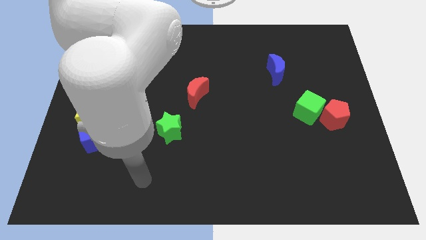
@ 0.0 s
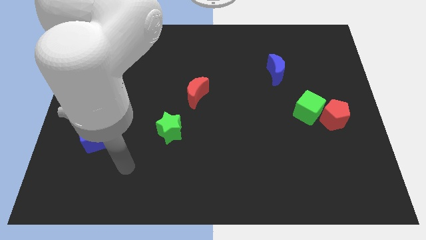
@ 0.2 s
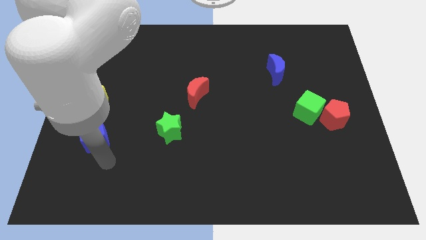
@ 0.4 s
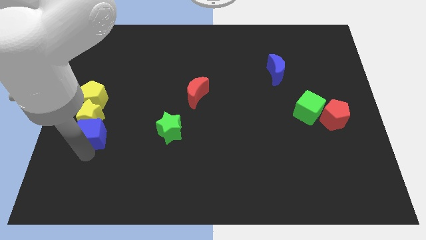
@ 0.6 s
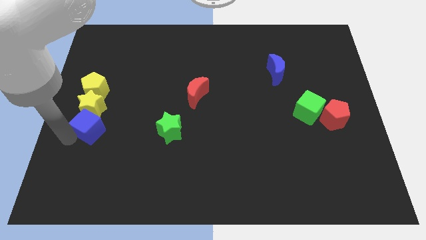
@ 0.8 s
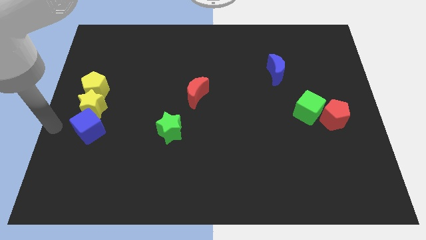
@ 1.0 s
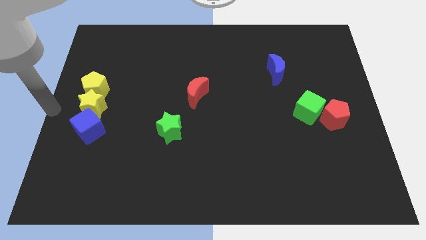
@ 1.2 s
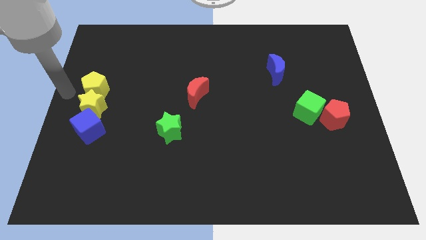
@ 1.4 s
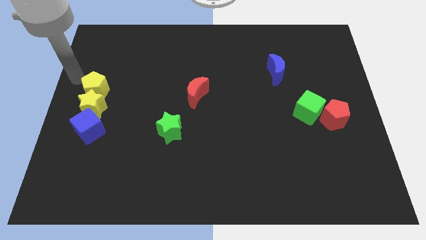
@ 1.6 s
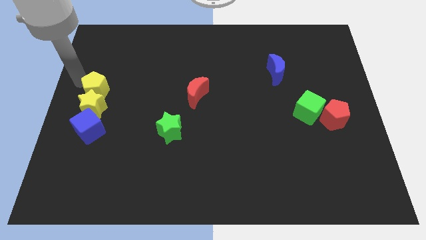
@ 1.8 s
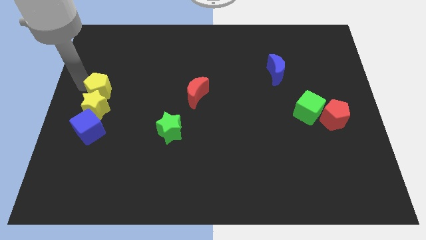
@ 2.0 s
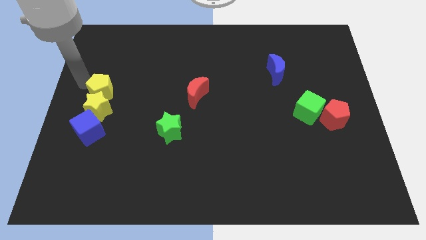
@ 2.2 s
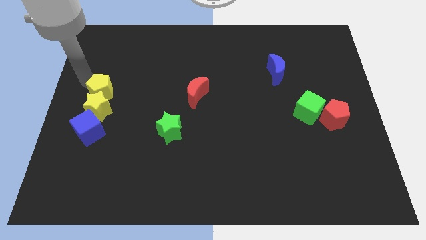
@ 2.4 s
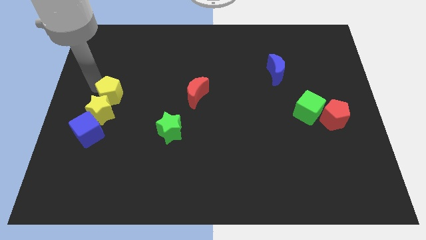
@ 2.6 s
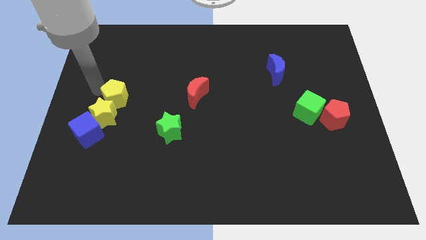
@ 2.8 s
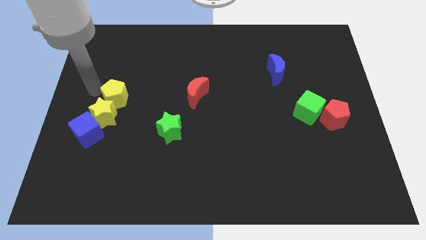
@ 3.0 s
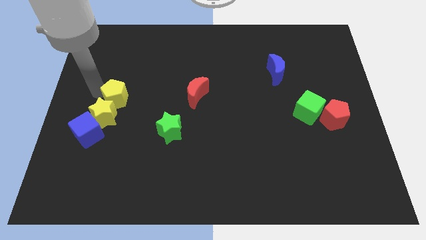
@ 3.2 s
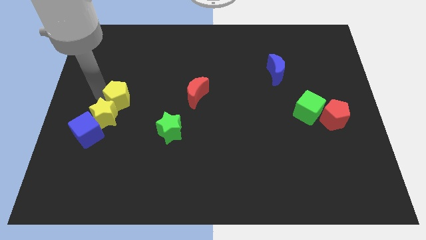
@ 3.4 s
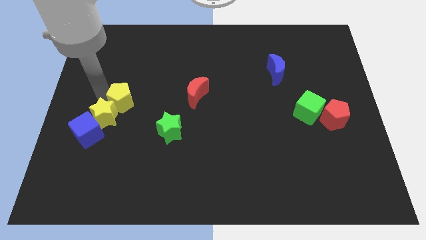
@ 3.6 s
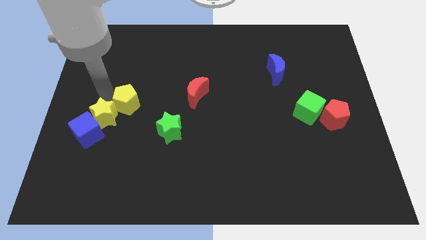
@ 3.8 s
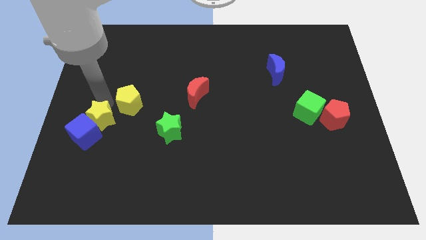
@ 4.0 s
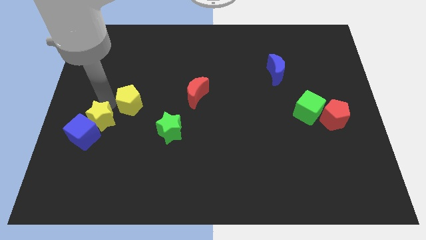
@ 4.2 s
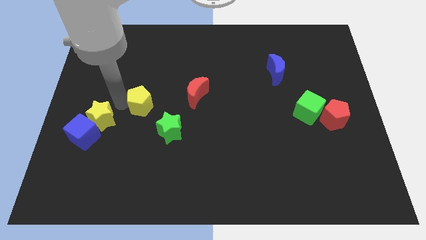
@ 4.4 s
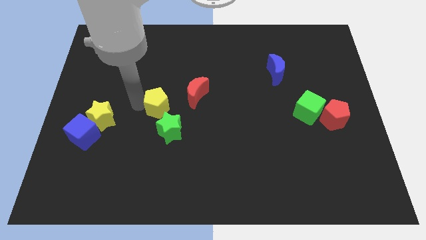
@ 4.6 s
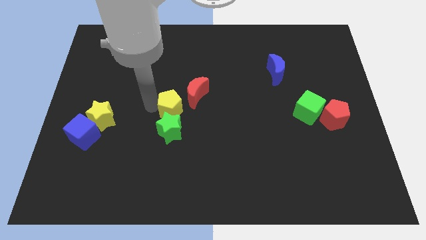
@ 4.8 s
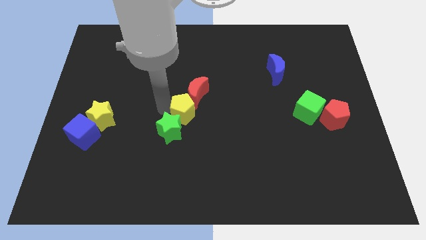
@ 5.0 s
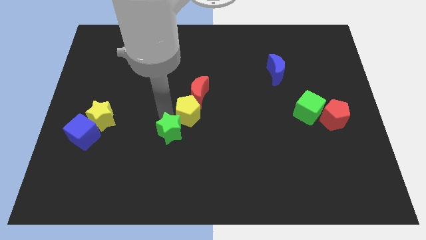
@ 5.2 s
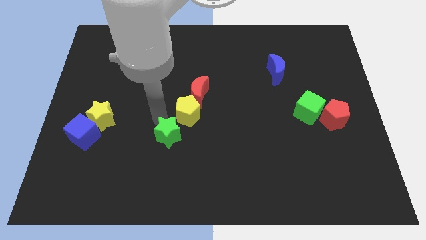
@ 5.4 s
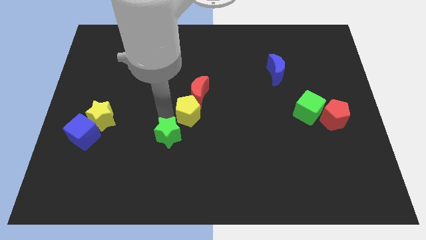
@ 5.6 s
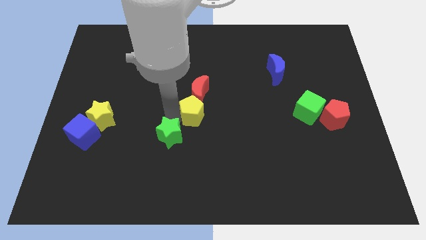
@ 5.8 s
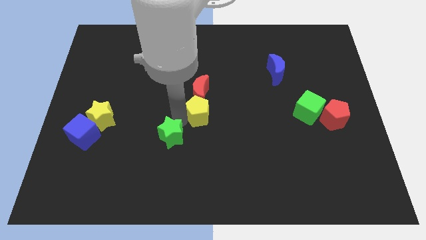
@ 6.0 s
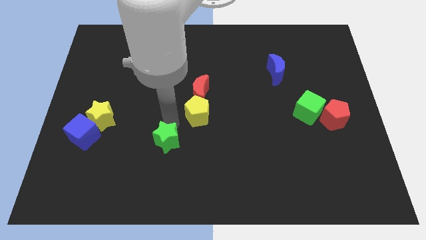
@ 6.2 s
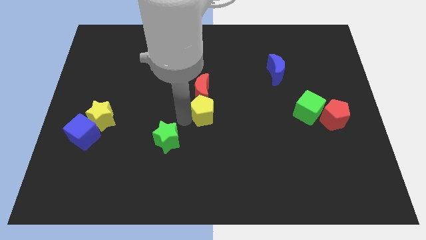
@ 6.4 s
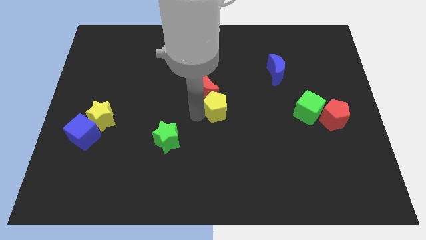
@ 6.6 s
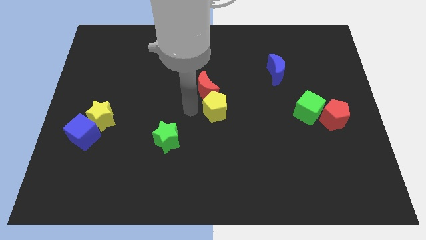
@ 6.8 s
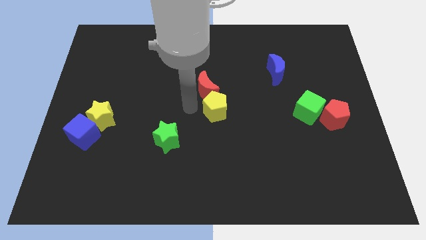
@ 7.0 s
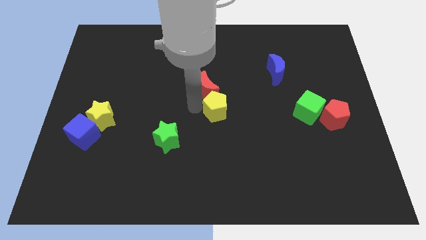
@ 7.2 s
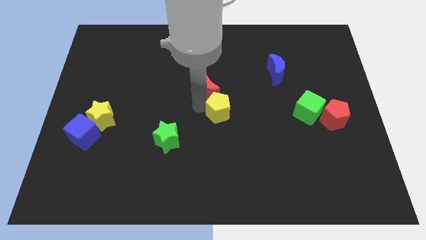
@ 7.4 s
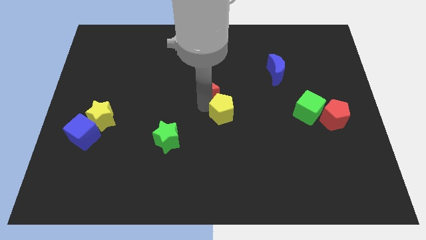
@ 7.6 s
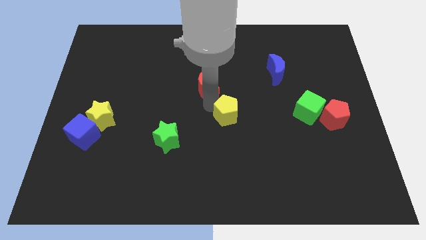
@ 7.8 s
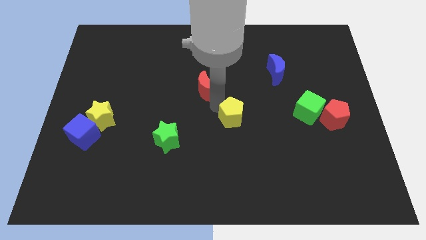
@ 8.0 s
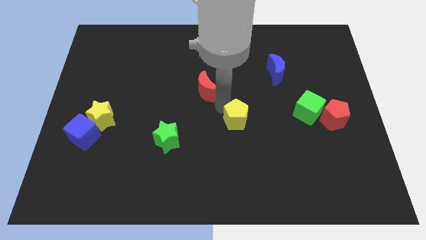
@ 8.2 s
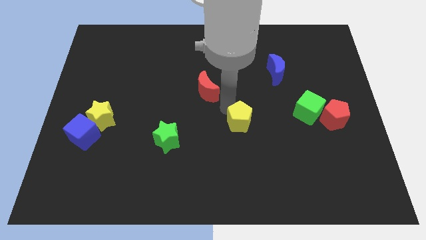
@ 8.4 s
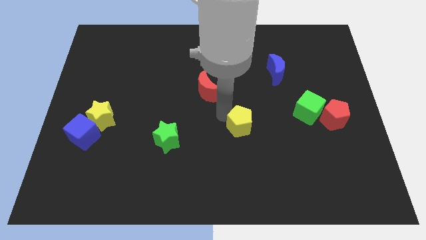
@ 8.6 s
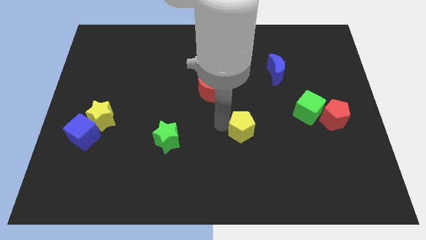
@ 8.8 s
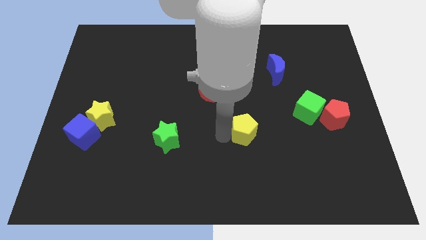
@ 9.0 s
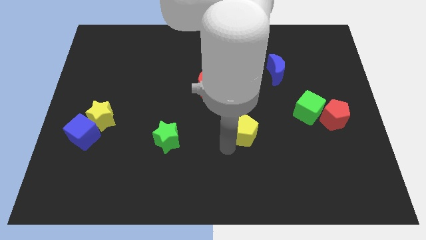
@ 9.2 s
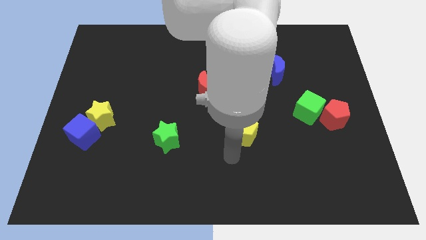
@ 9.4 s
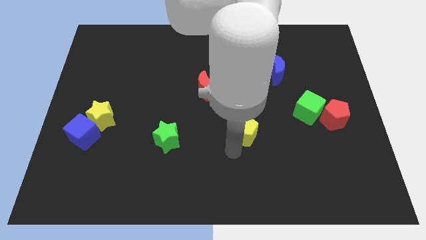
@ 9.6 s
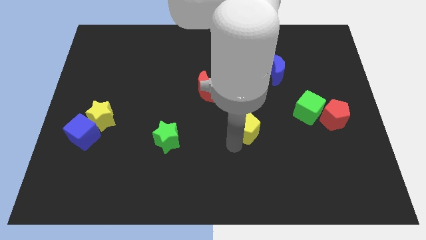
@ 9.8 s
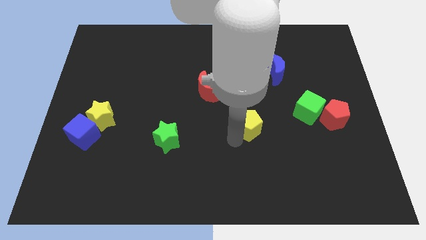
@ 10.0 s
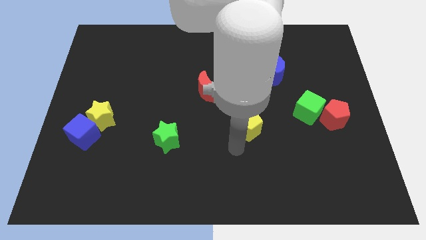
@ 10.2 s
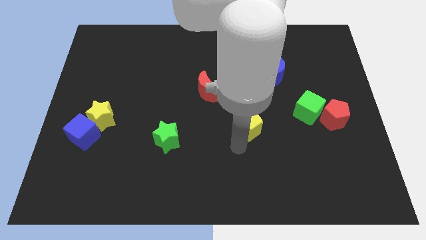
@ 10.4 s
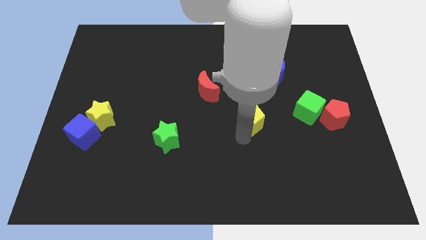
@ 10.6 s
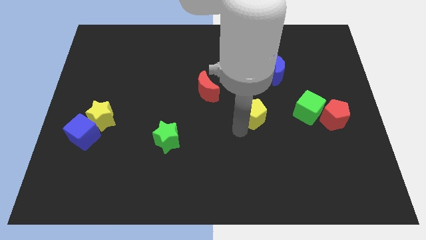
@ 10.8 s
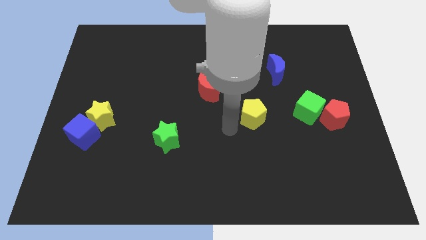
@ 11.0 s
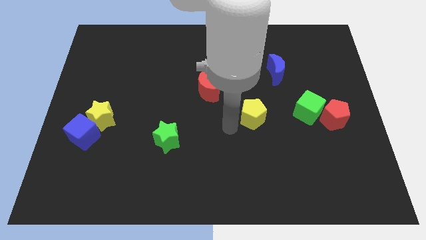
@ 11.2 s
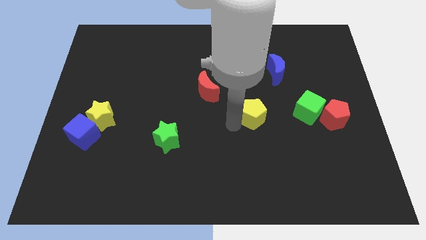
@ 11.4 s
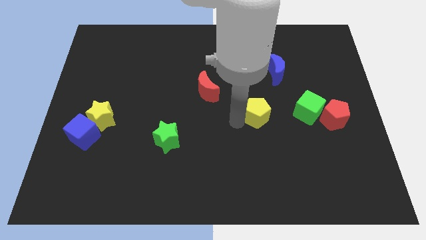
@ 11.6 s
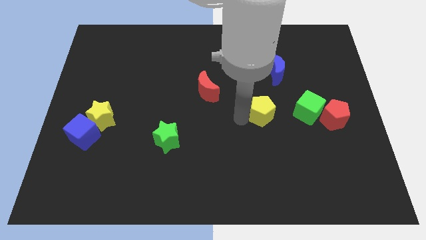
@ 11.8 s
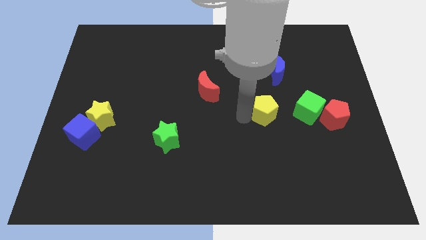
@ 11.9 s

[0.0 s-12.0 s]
put the yellow pentagon below the blue moon

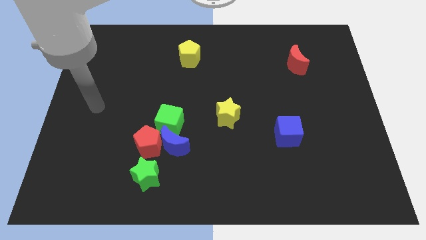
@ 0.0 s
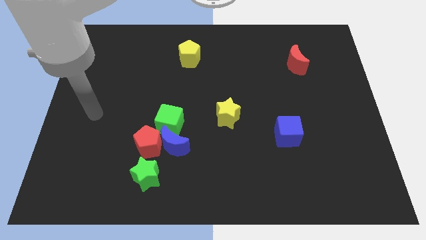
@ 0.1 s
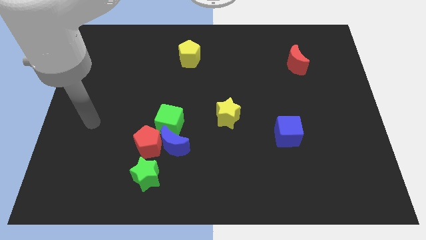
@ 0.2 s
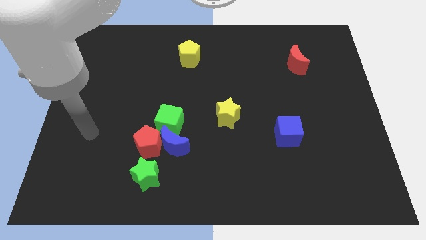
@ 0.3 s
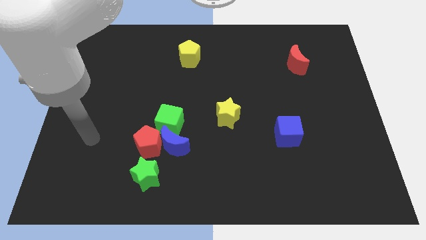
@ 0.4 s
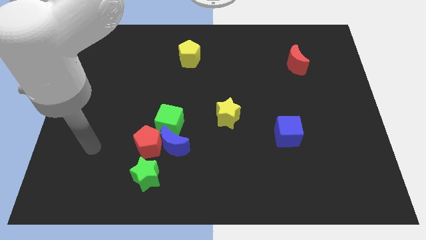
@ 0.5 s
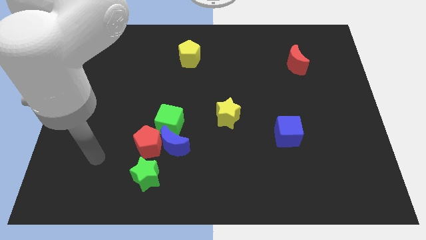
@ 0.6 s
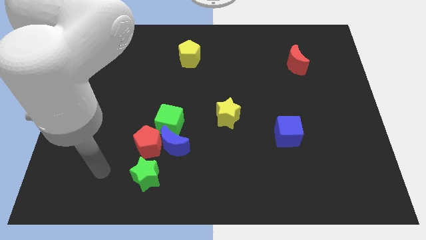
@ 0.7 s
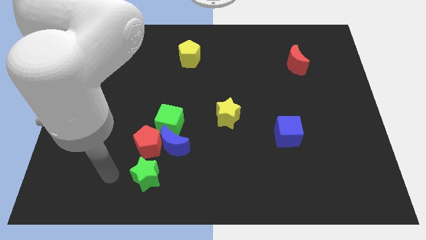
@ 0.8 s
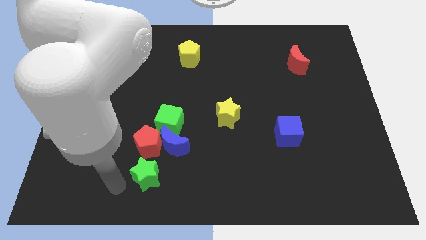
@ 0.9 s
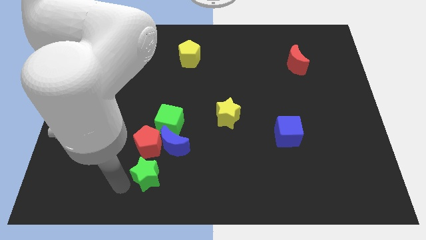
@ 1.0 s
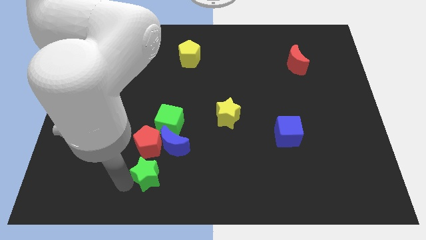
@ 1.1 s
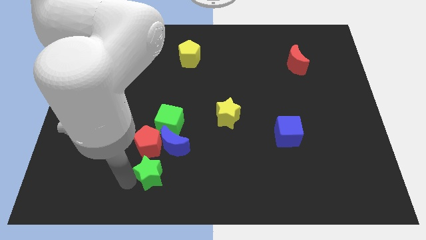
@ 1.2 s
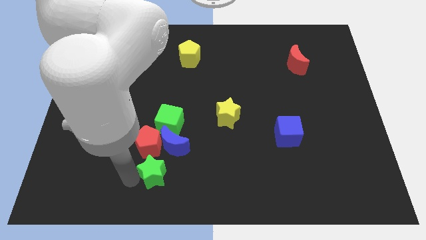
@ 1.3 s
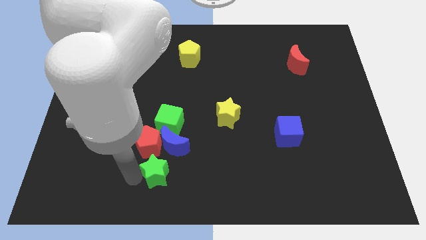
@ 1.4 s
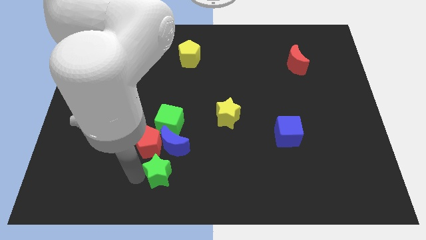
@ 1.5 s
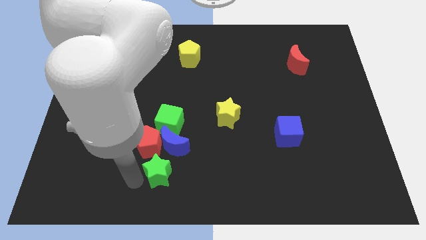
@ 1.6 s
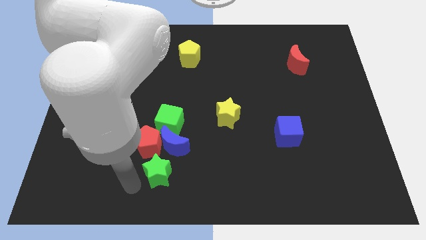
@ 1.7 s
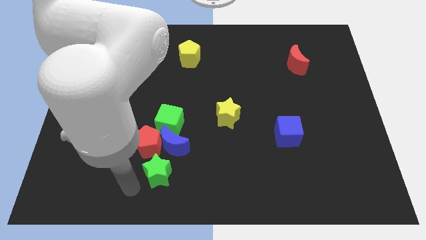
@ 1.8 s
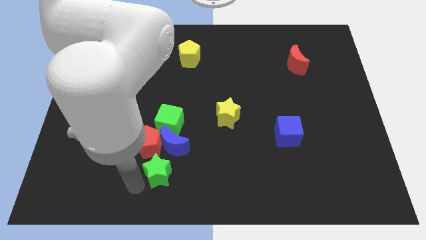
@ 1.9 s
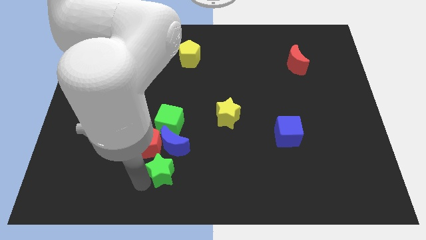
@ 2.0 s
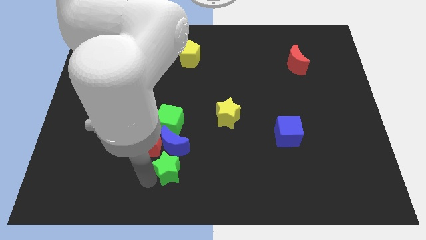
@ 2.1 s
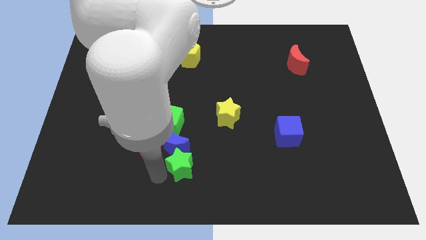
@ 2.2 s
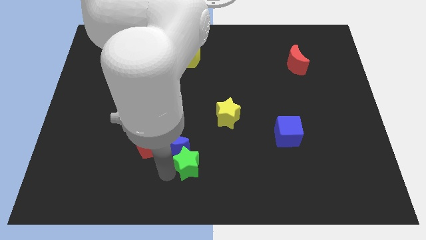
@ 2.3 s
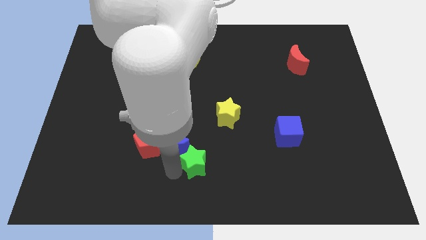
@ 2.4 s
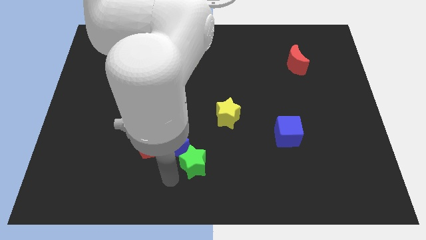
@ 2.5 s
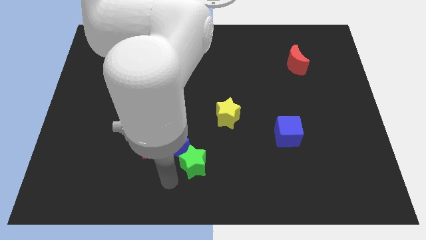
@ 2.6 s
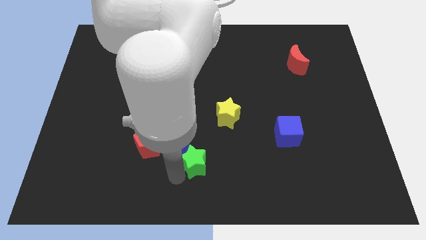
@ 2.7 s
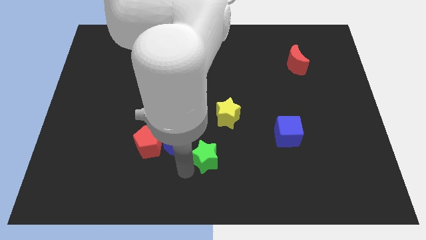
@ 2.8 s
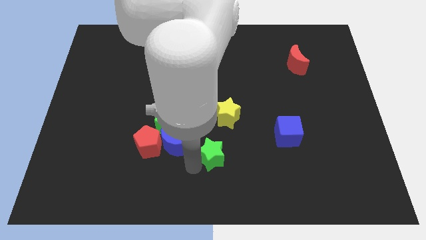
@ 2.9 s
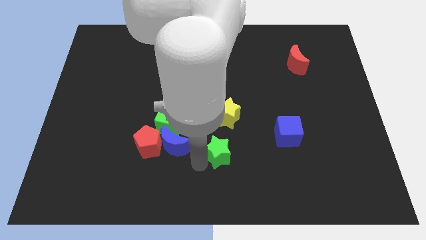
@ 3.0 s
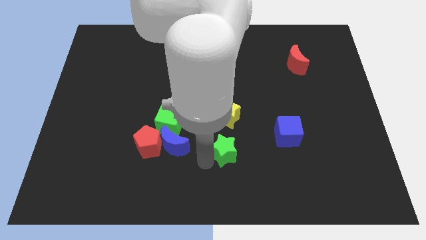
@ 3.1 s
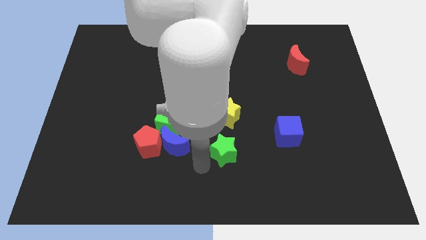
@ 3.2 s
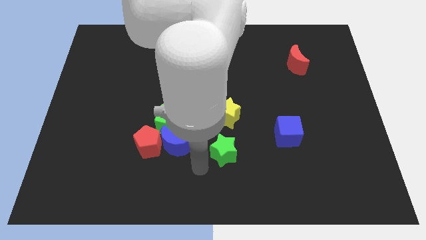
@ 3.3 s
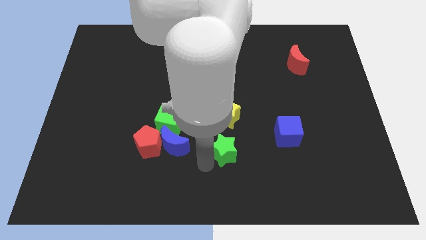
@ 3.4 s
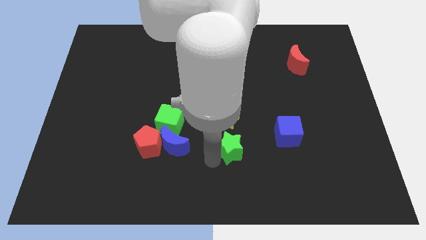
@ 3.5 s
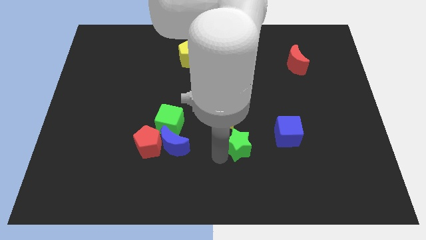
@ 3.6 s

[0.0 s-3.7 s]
put the green star to the bottom right side of the yellow star
